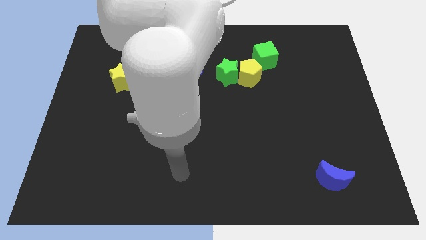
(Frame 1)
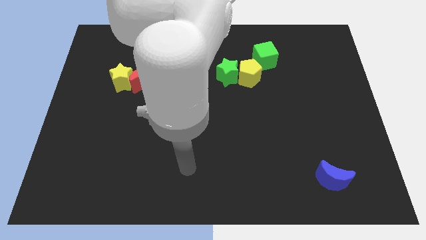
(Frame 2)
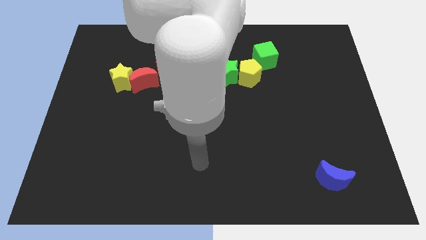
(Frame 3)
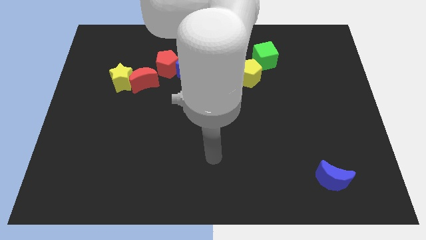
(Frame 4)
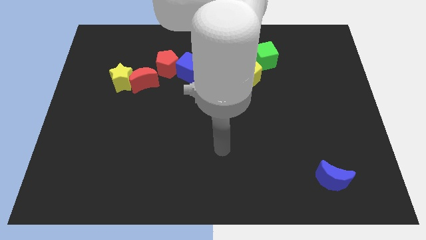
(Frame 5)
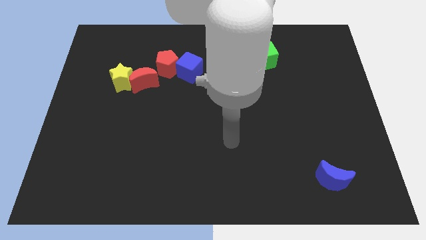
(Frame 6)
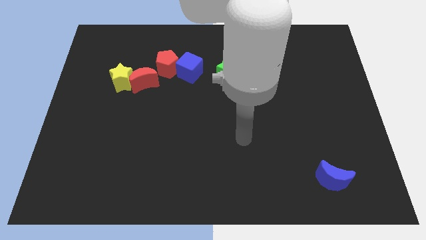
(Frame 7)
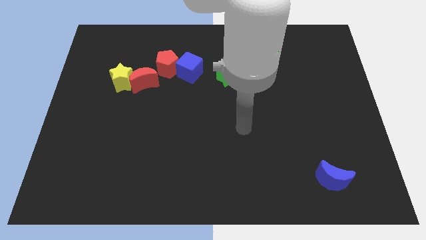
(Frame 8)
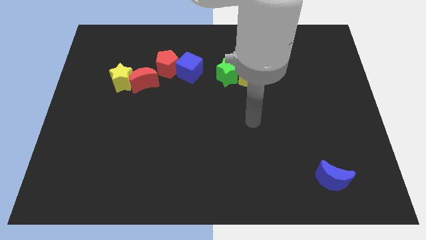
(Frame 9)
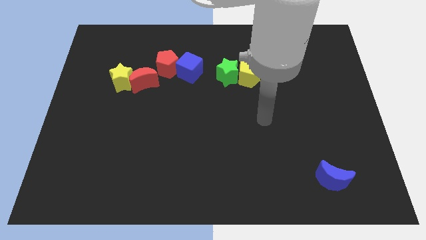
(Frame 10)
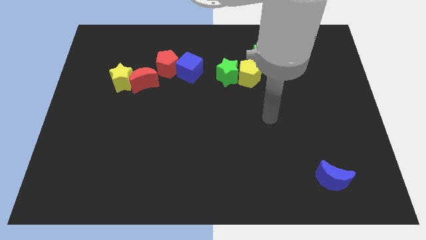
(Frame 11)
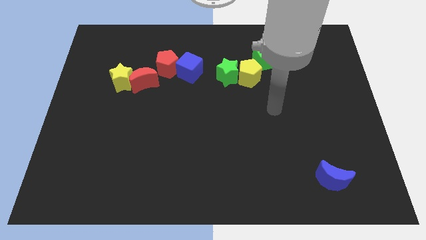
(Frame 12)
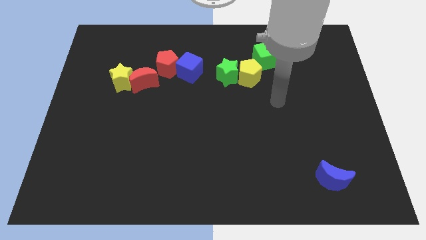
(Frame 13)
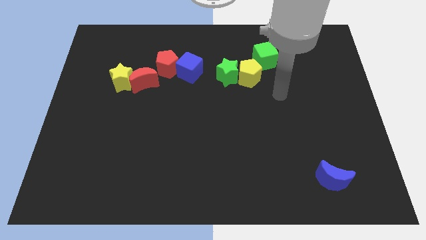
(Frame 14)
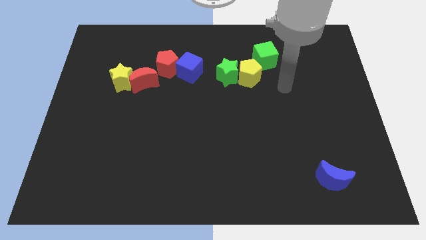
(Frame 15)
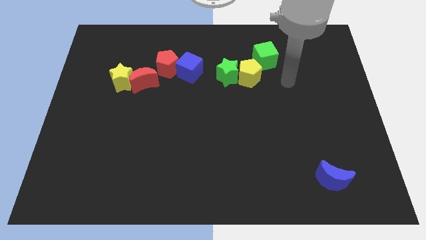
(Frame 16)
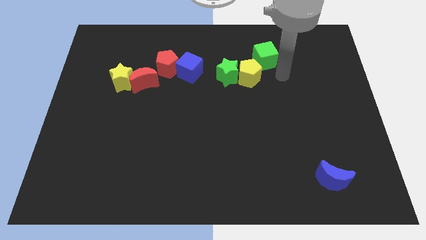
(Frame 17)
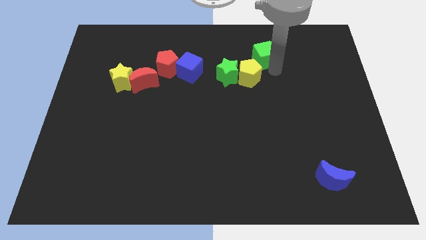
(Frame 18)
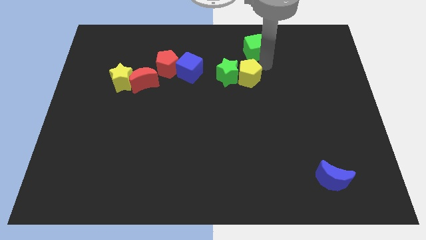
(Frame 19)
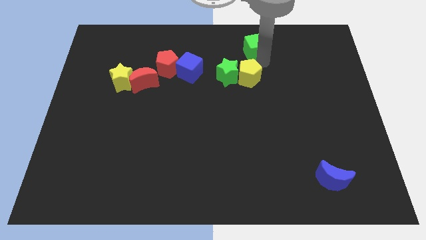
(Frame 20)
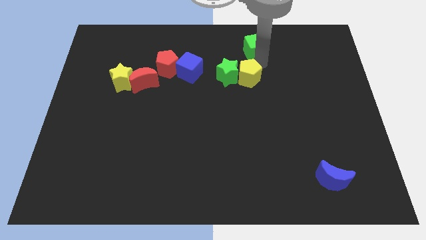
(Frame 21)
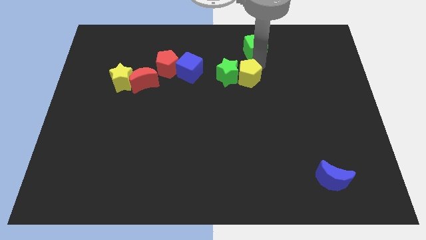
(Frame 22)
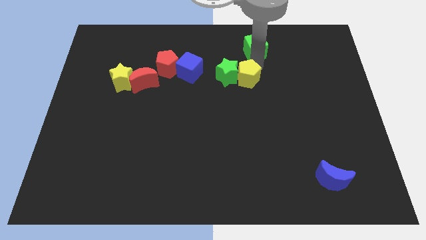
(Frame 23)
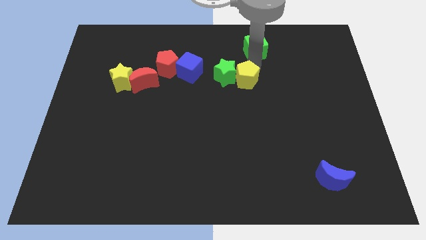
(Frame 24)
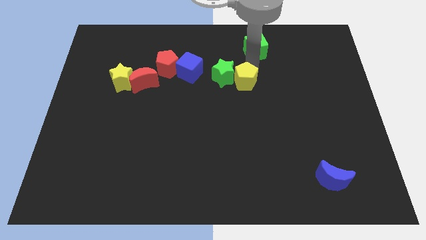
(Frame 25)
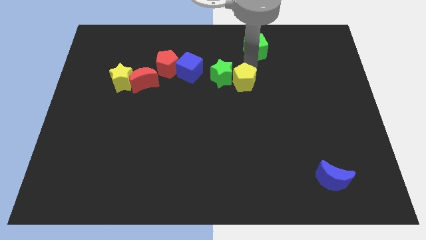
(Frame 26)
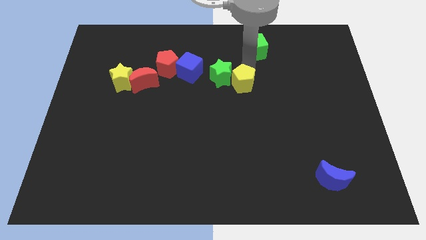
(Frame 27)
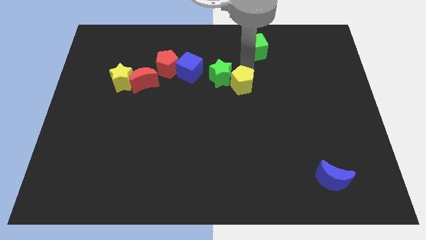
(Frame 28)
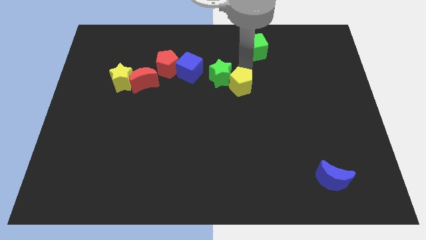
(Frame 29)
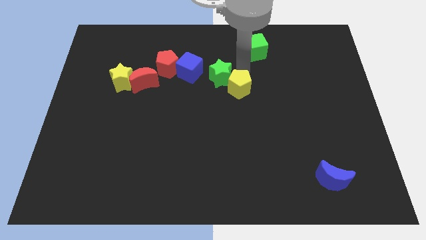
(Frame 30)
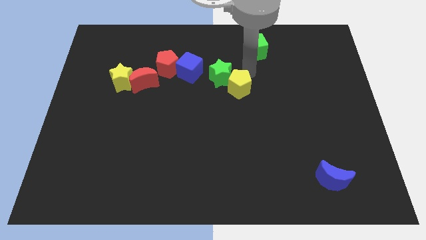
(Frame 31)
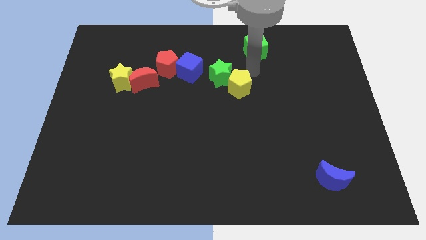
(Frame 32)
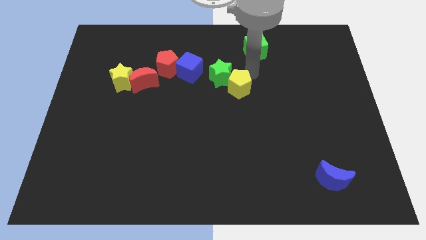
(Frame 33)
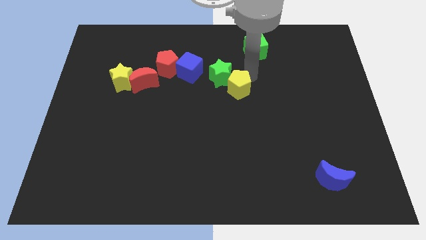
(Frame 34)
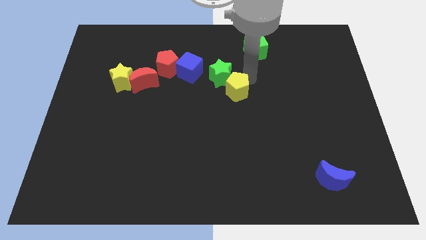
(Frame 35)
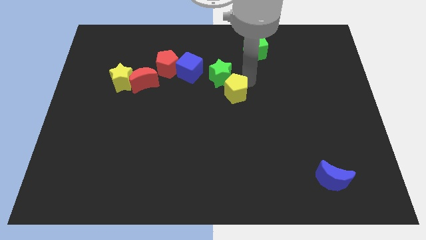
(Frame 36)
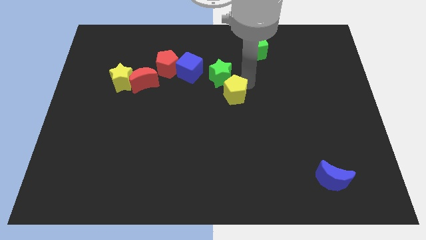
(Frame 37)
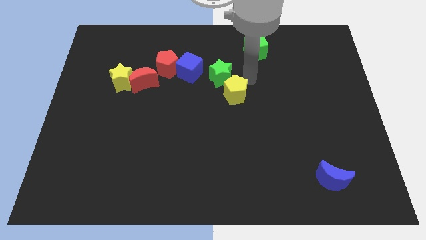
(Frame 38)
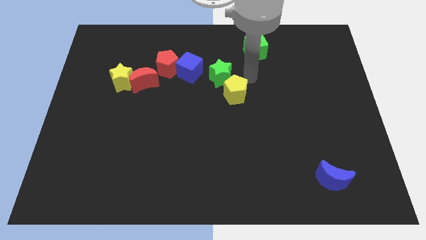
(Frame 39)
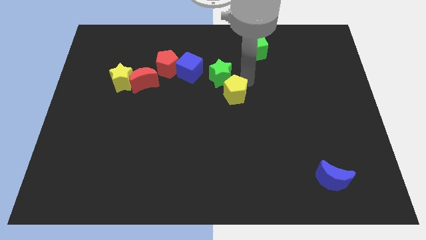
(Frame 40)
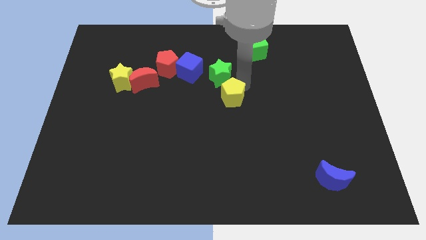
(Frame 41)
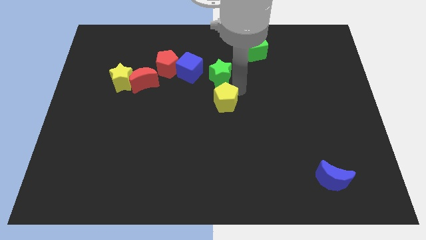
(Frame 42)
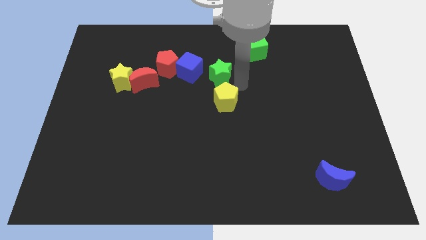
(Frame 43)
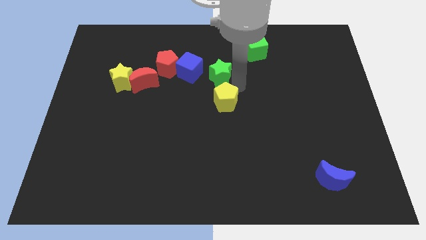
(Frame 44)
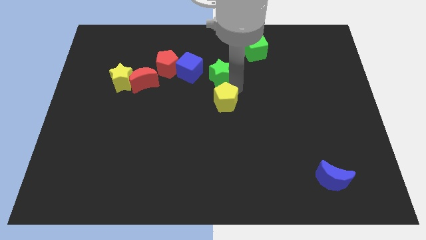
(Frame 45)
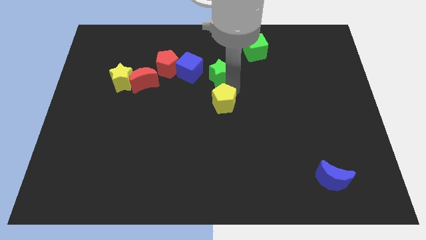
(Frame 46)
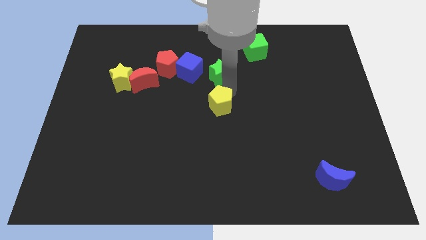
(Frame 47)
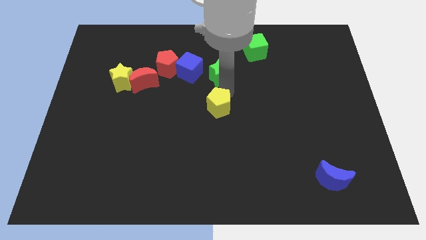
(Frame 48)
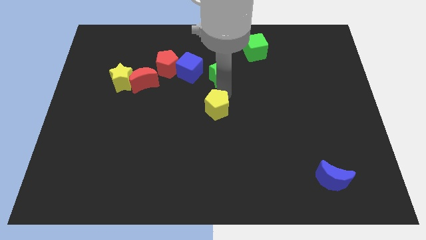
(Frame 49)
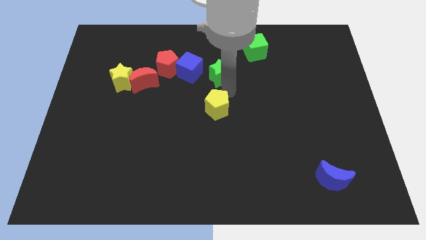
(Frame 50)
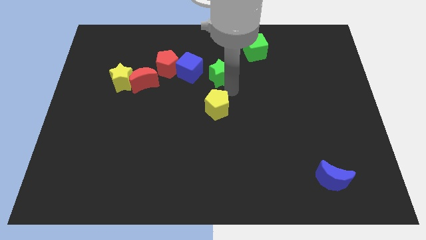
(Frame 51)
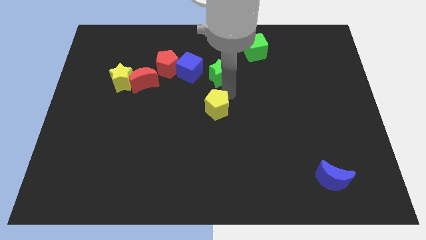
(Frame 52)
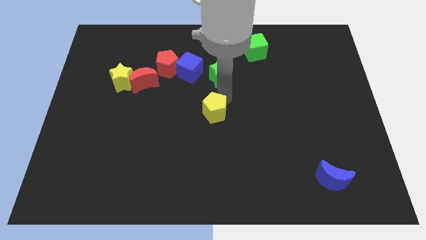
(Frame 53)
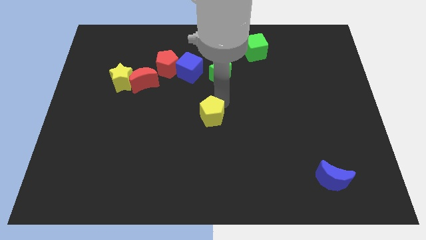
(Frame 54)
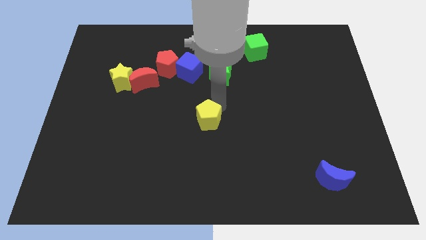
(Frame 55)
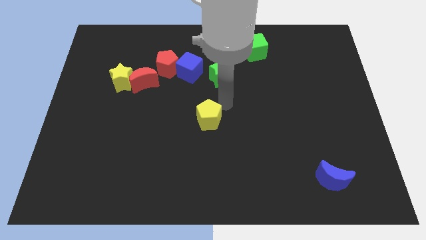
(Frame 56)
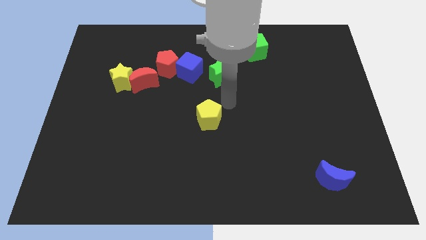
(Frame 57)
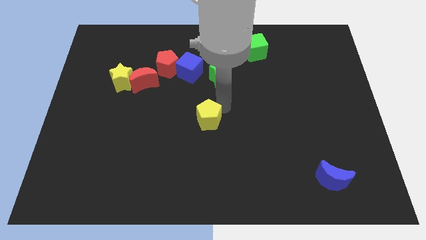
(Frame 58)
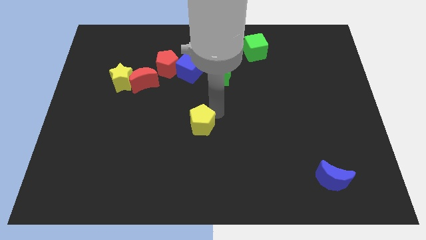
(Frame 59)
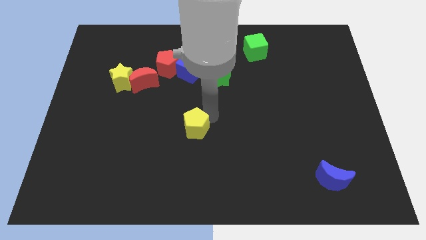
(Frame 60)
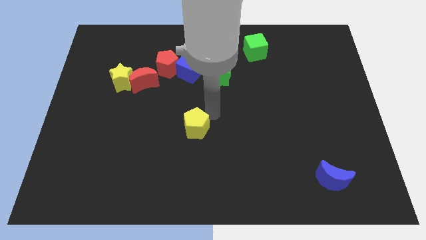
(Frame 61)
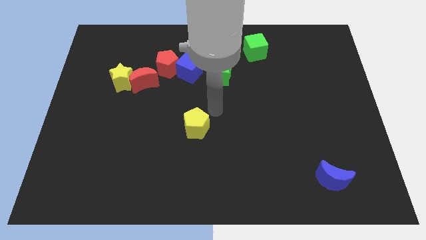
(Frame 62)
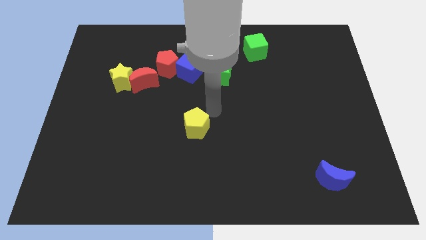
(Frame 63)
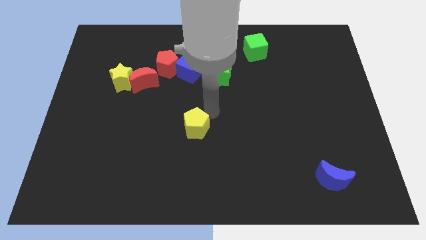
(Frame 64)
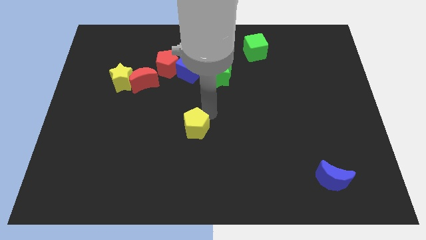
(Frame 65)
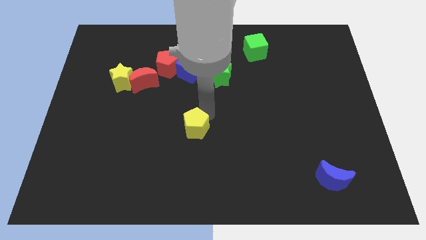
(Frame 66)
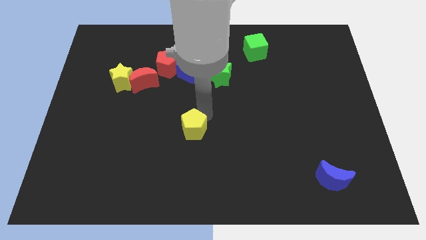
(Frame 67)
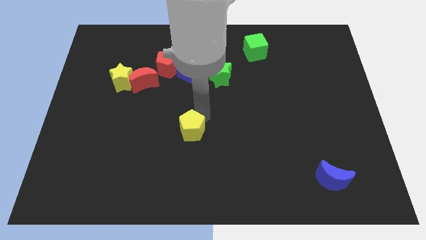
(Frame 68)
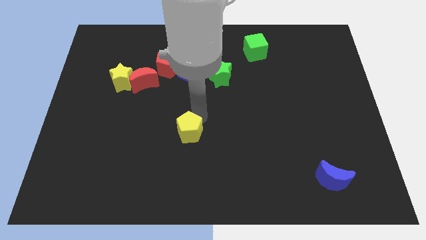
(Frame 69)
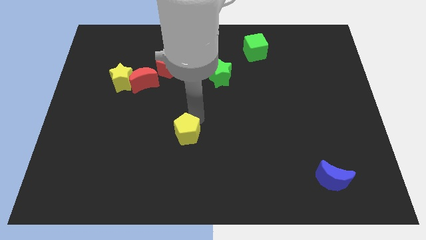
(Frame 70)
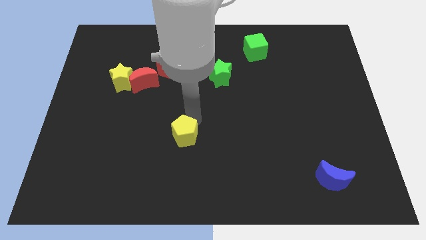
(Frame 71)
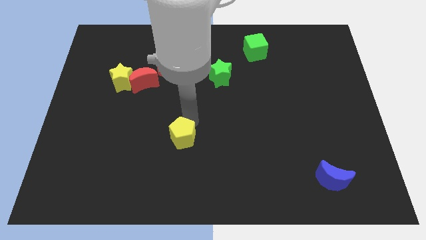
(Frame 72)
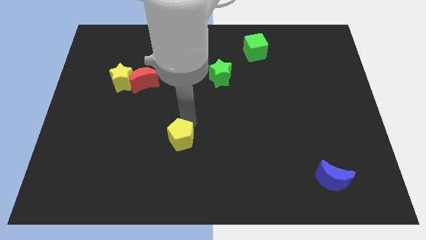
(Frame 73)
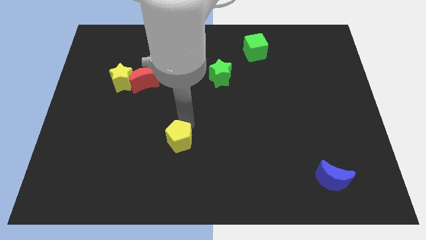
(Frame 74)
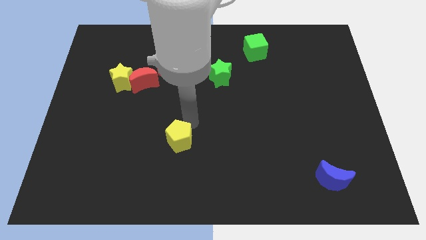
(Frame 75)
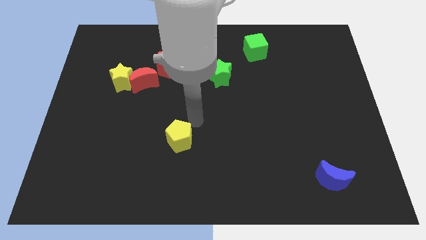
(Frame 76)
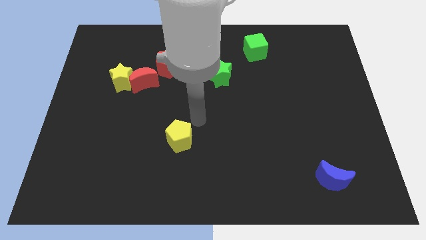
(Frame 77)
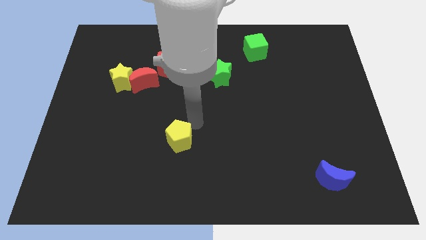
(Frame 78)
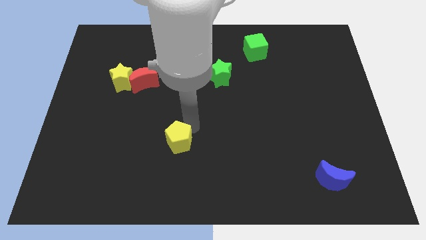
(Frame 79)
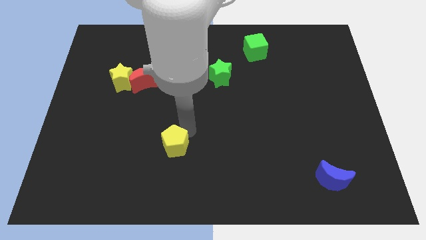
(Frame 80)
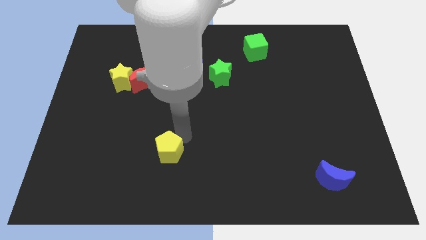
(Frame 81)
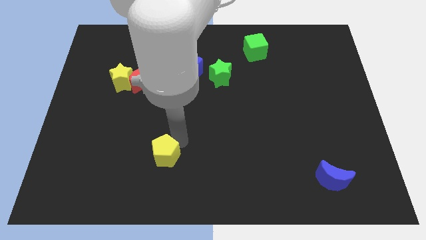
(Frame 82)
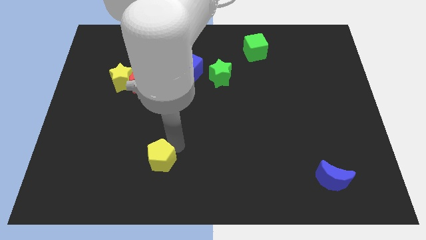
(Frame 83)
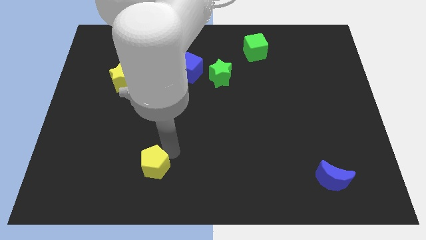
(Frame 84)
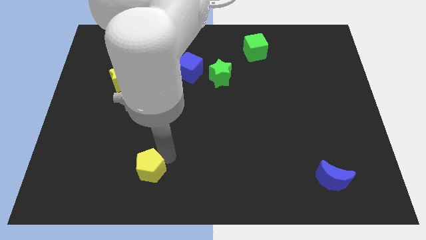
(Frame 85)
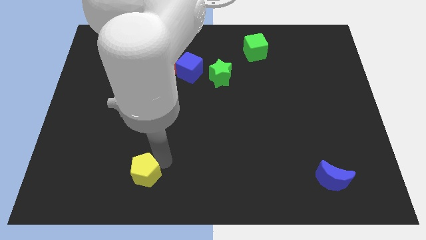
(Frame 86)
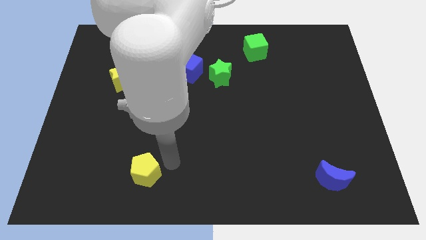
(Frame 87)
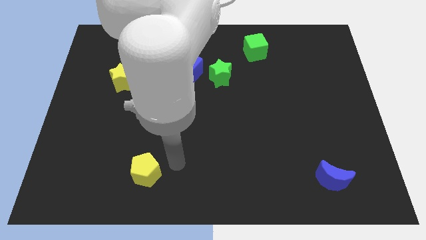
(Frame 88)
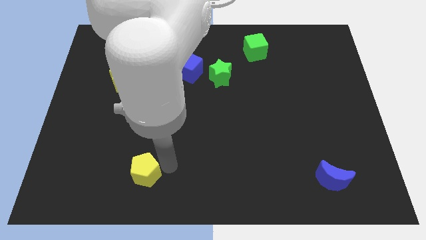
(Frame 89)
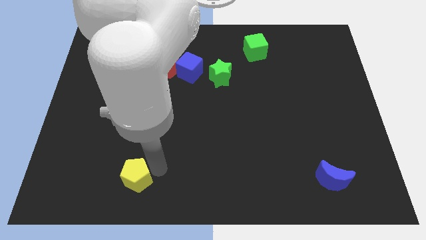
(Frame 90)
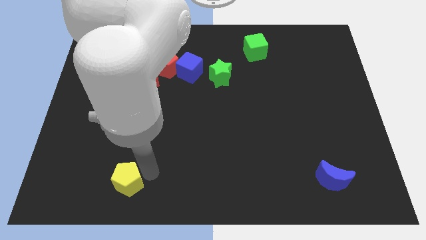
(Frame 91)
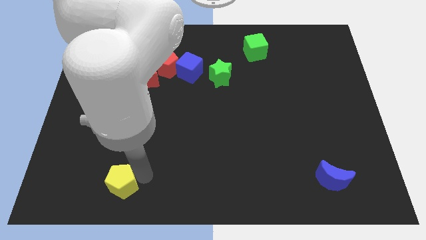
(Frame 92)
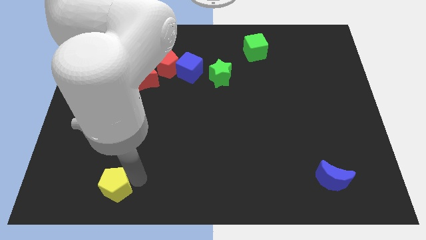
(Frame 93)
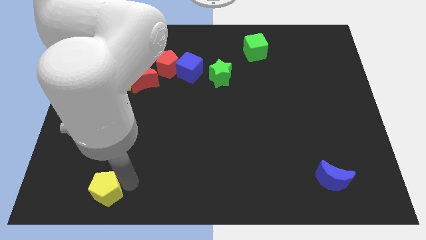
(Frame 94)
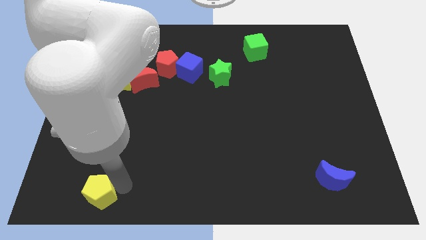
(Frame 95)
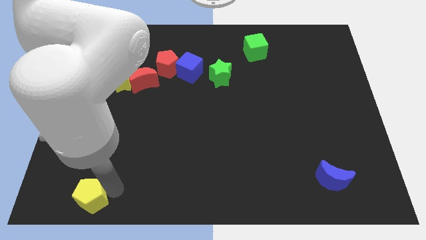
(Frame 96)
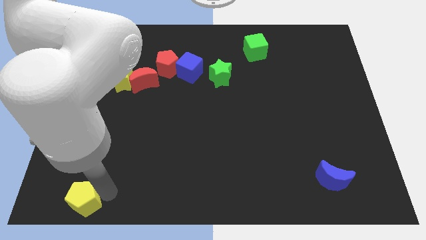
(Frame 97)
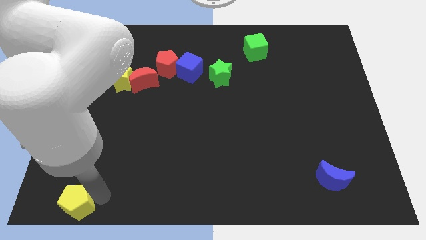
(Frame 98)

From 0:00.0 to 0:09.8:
put the yellow pentagon to the bottom left of the board
